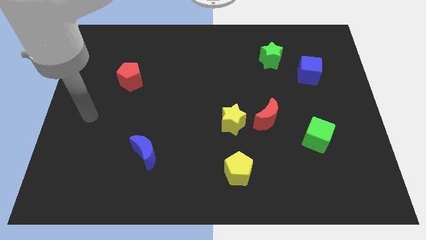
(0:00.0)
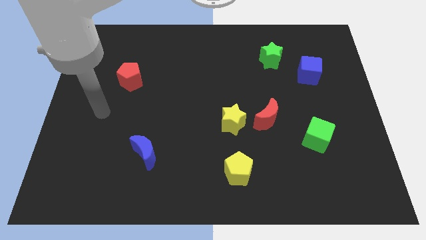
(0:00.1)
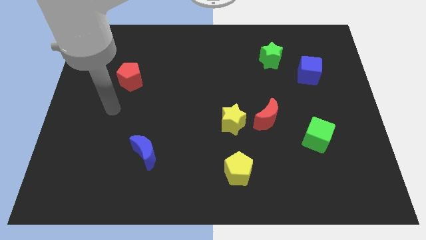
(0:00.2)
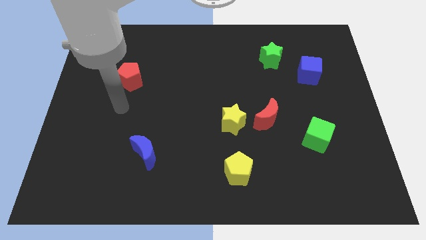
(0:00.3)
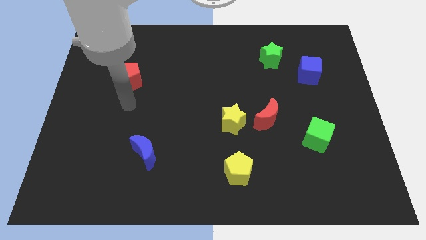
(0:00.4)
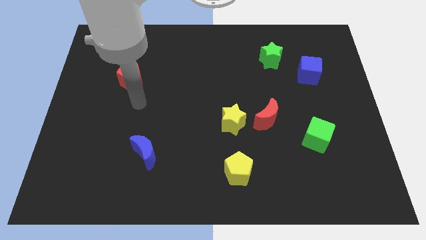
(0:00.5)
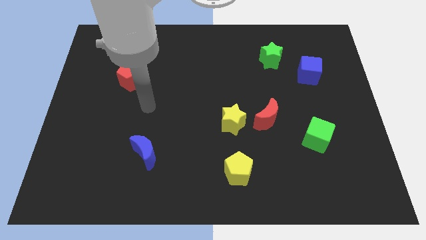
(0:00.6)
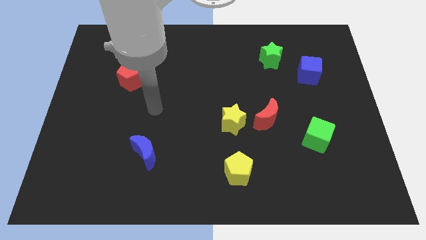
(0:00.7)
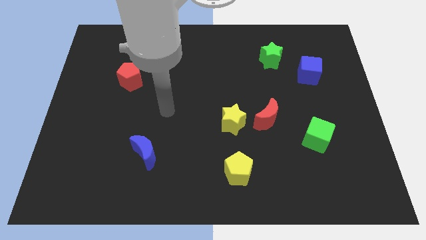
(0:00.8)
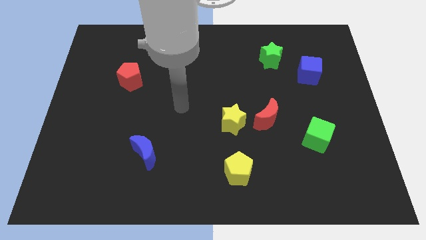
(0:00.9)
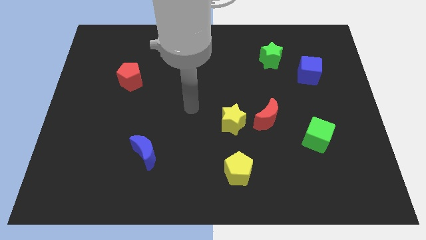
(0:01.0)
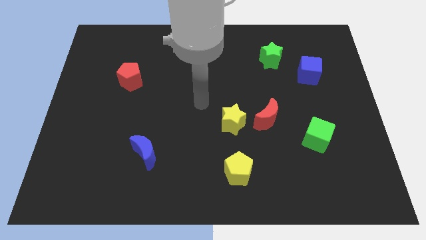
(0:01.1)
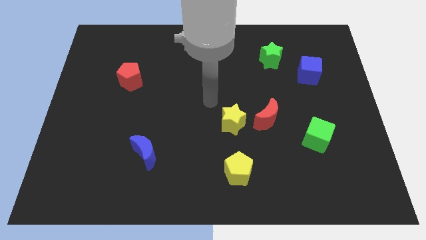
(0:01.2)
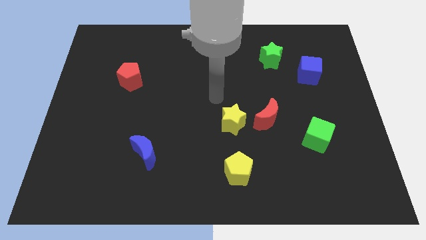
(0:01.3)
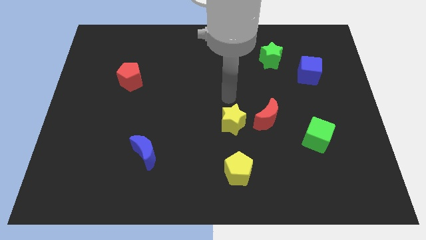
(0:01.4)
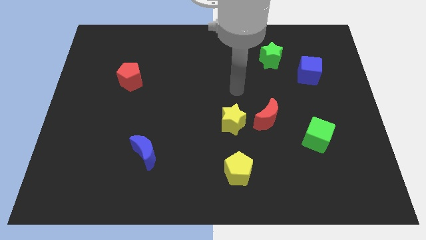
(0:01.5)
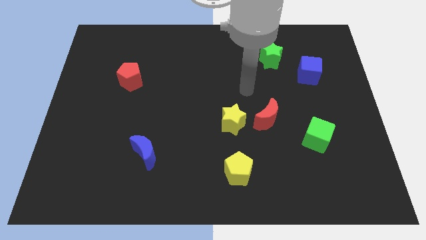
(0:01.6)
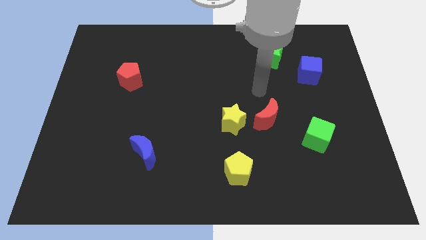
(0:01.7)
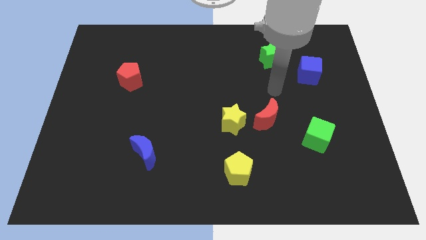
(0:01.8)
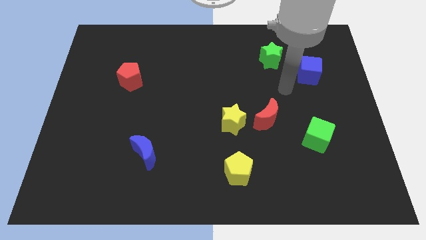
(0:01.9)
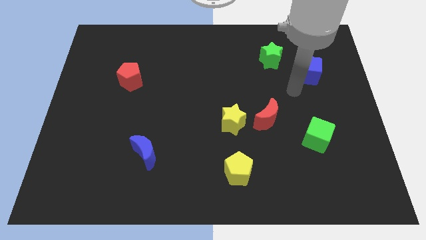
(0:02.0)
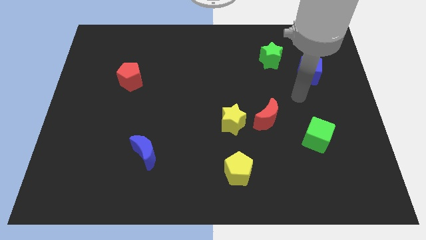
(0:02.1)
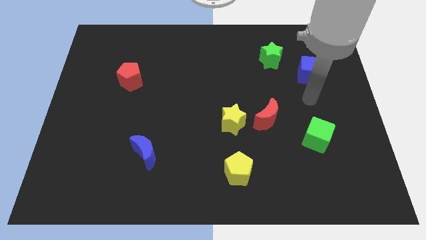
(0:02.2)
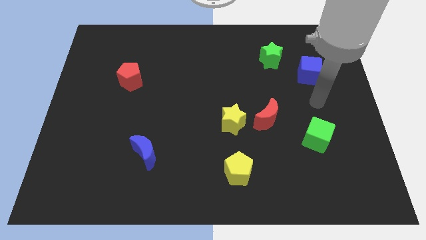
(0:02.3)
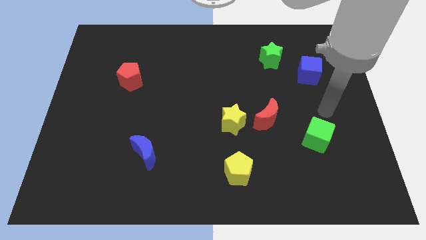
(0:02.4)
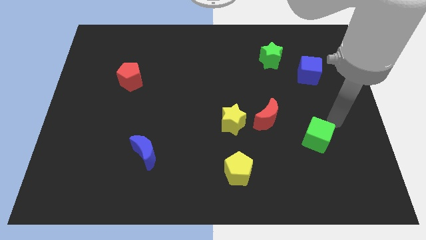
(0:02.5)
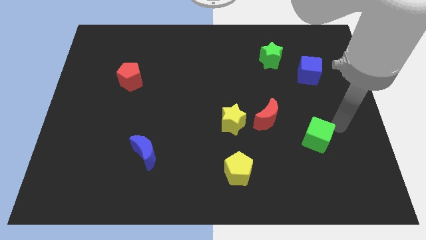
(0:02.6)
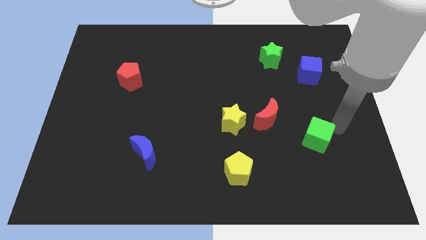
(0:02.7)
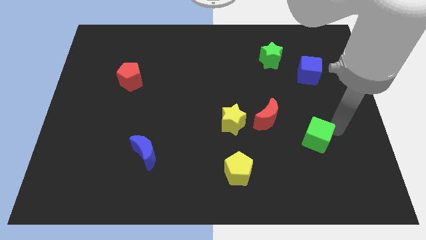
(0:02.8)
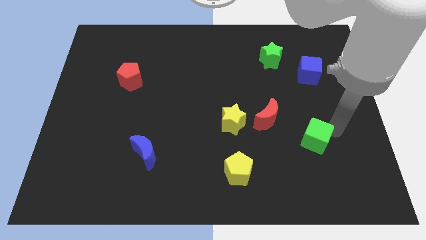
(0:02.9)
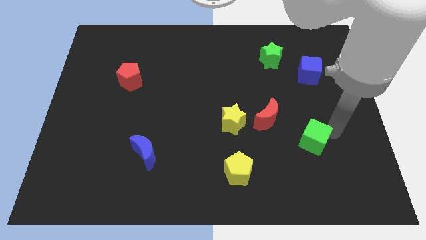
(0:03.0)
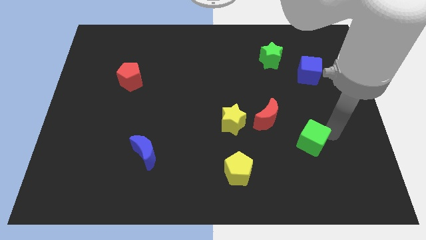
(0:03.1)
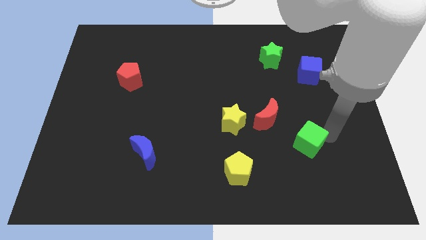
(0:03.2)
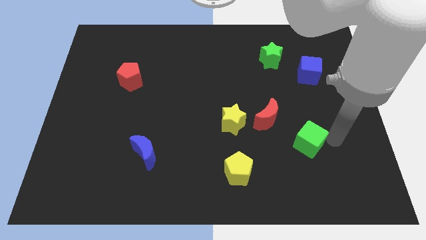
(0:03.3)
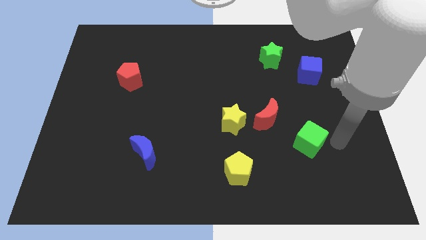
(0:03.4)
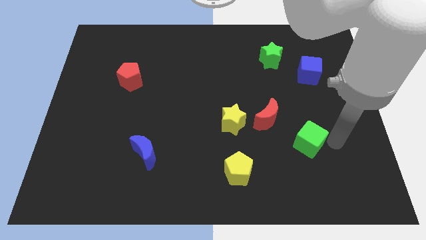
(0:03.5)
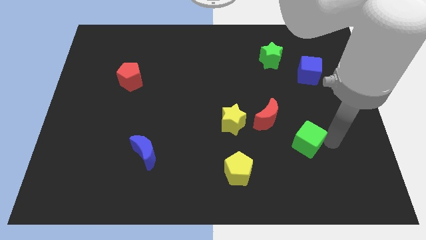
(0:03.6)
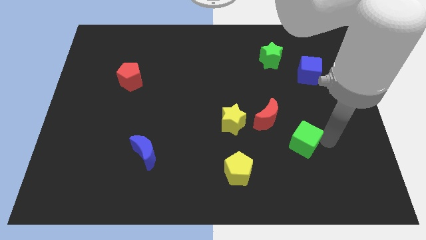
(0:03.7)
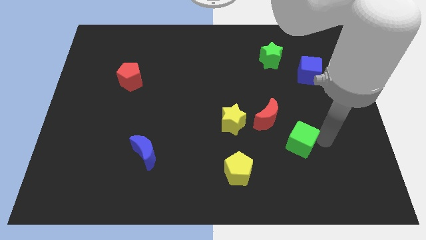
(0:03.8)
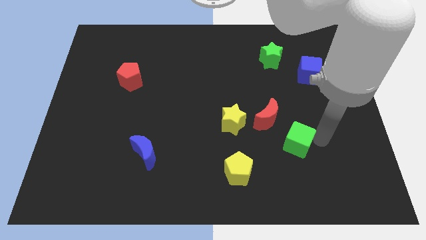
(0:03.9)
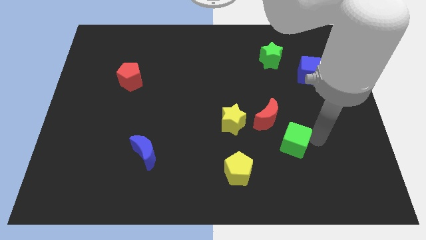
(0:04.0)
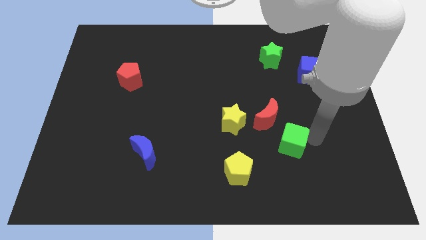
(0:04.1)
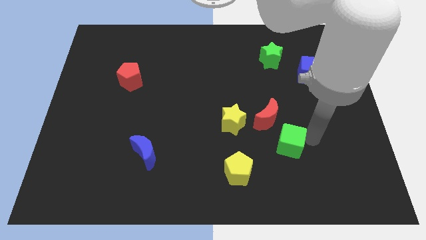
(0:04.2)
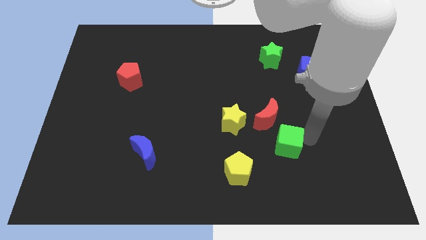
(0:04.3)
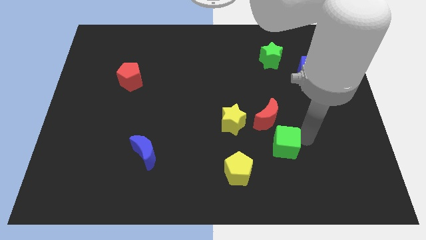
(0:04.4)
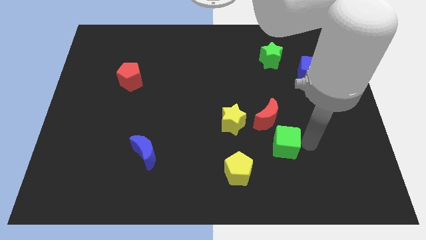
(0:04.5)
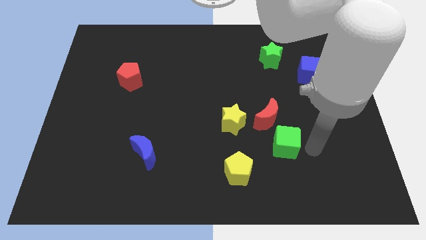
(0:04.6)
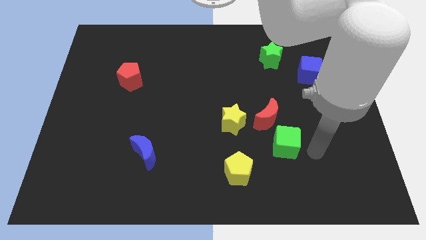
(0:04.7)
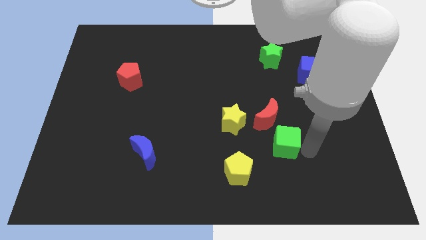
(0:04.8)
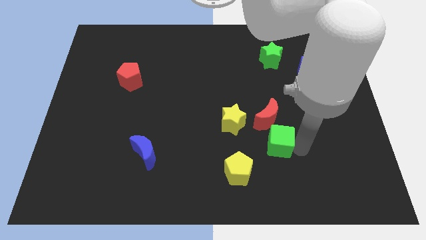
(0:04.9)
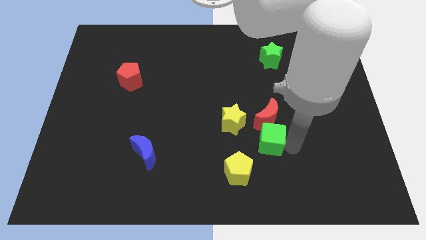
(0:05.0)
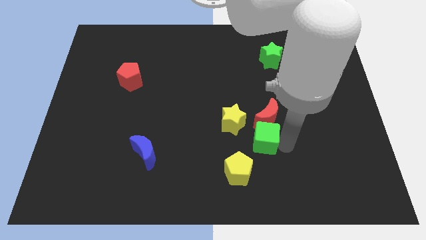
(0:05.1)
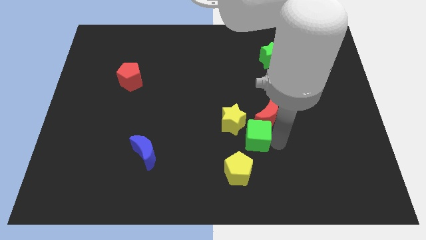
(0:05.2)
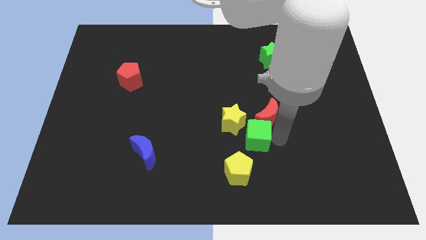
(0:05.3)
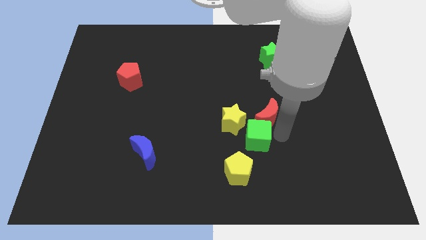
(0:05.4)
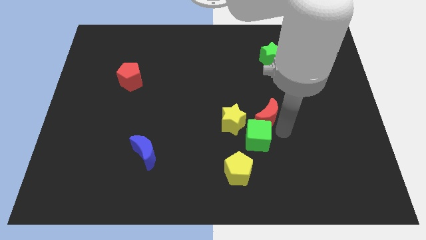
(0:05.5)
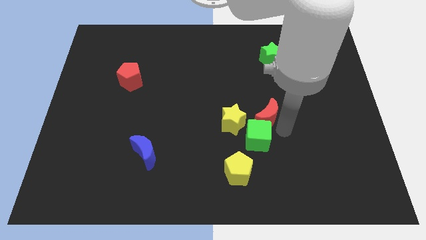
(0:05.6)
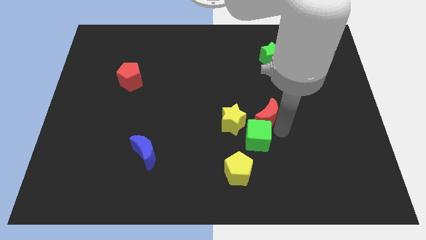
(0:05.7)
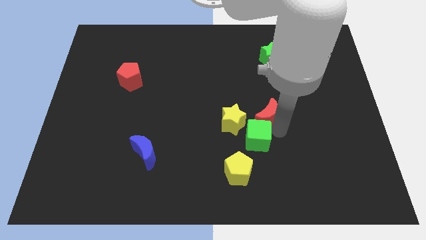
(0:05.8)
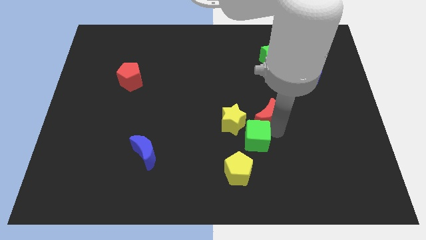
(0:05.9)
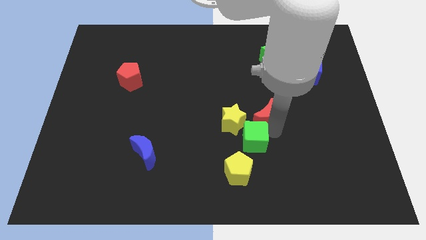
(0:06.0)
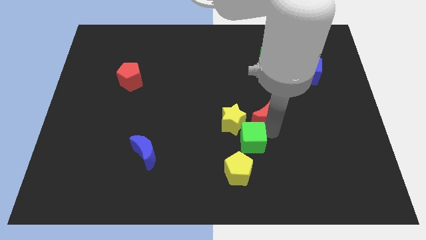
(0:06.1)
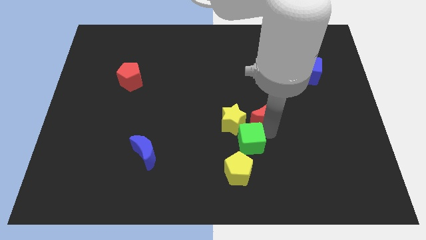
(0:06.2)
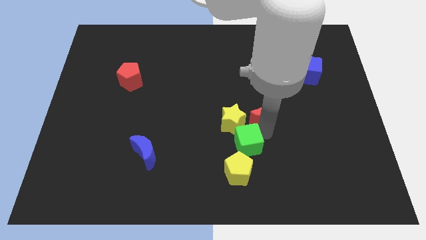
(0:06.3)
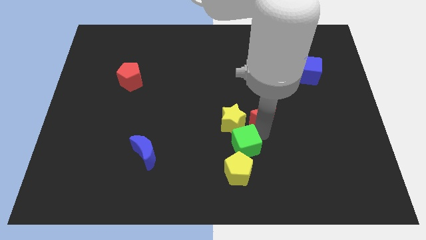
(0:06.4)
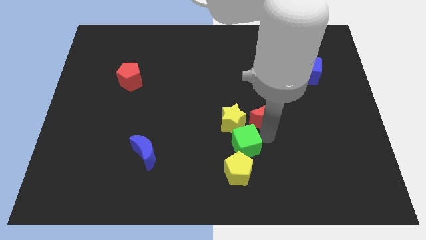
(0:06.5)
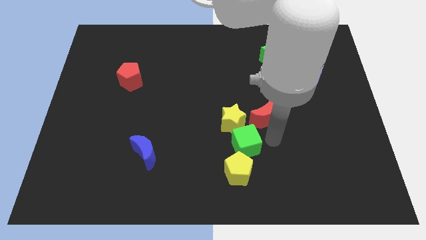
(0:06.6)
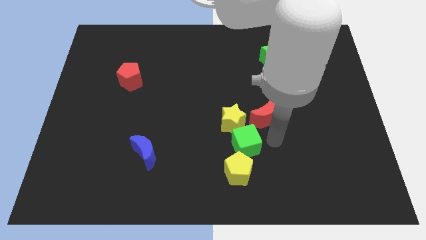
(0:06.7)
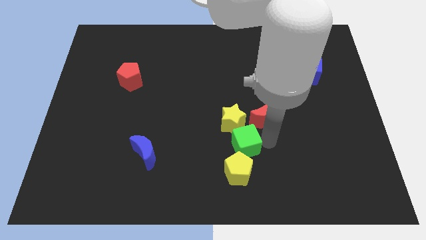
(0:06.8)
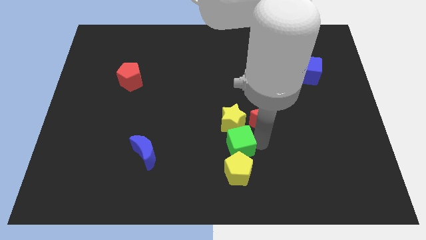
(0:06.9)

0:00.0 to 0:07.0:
push the green cube to the top left of the yellow pentagon
